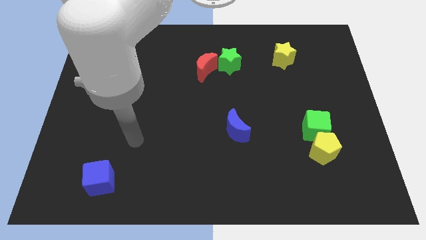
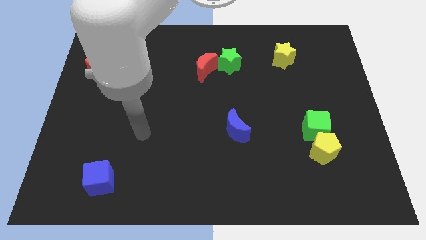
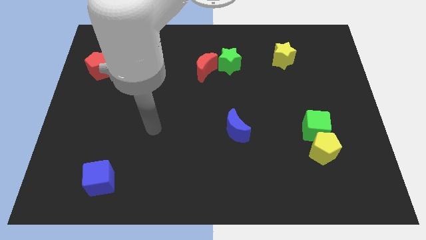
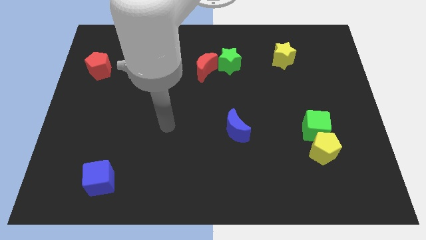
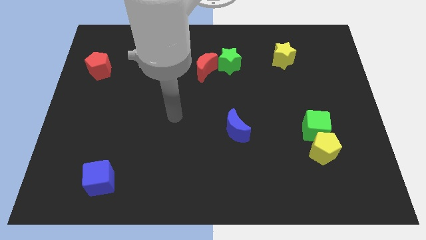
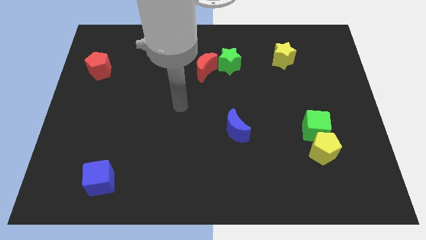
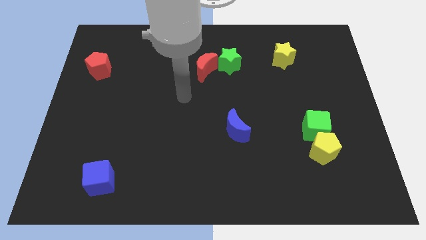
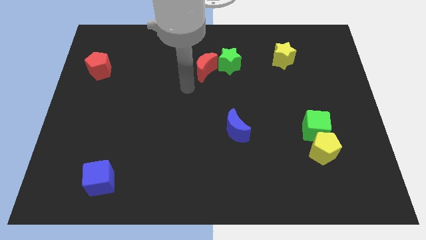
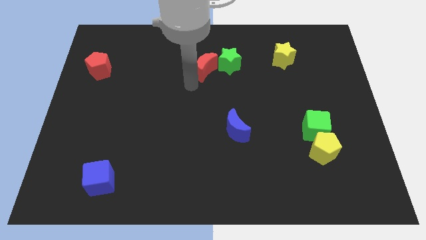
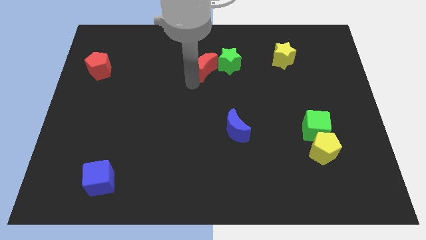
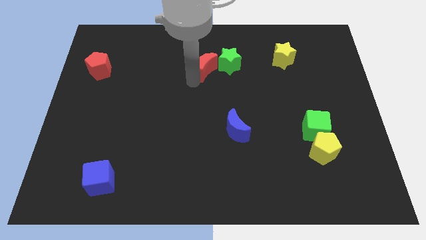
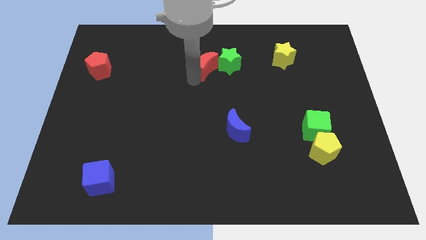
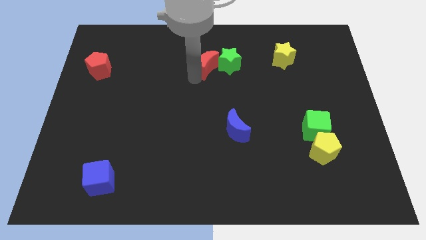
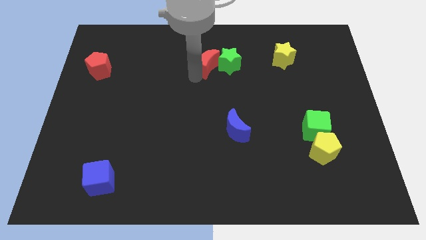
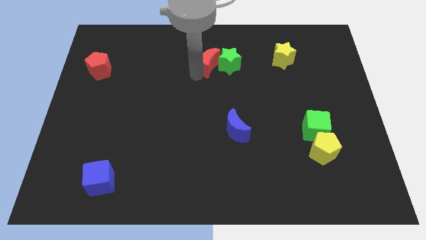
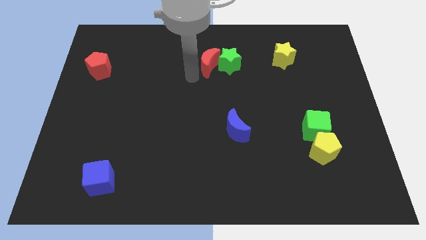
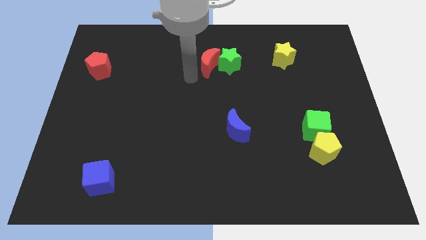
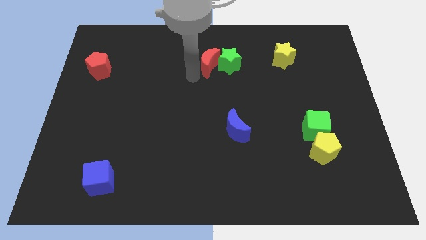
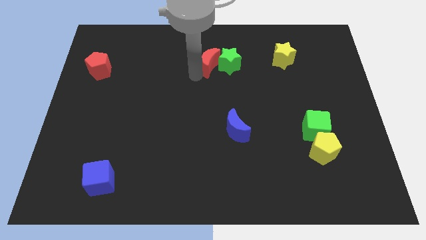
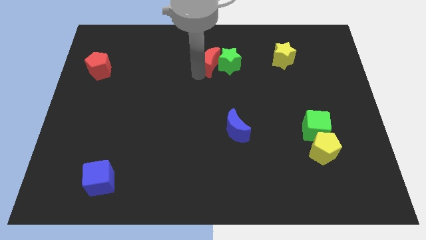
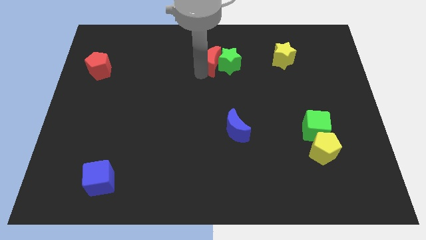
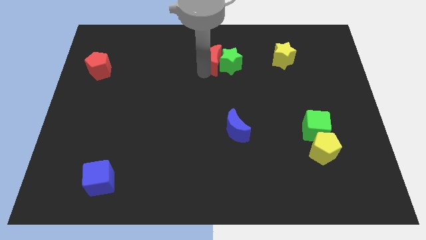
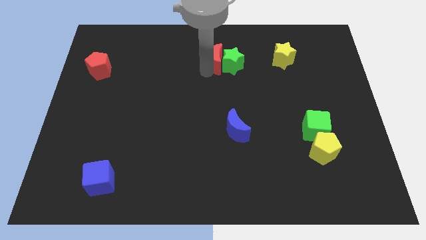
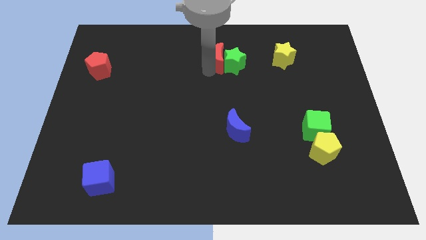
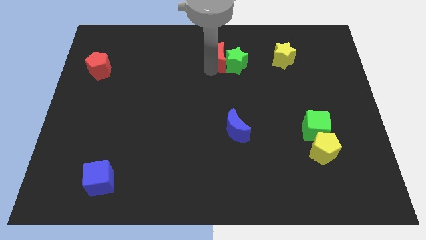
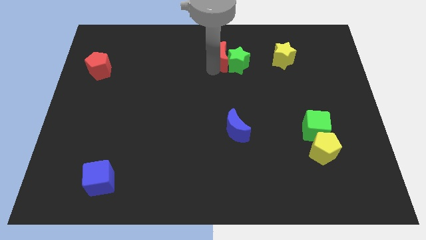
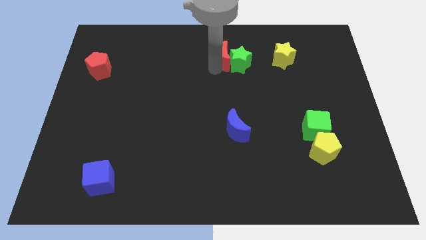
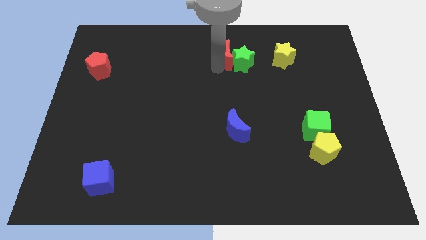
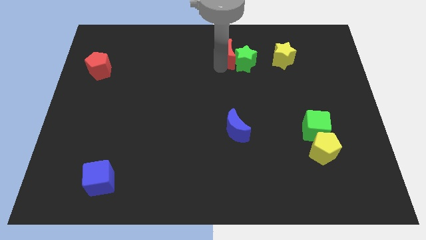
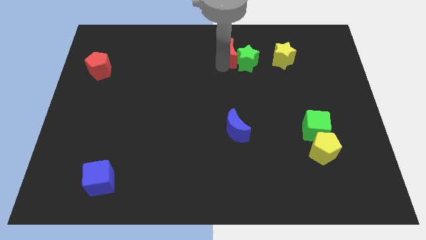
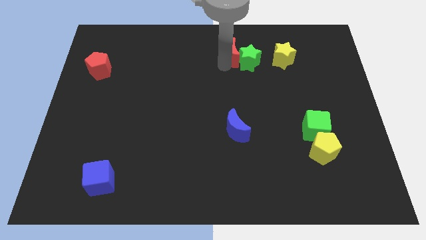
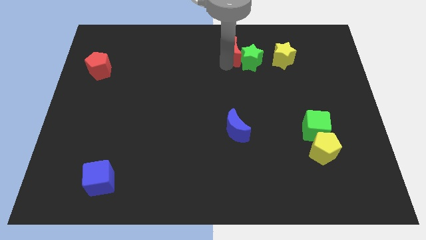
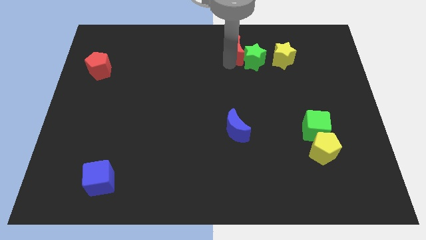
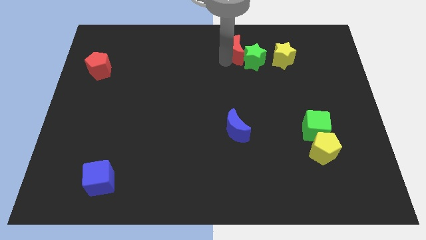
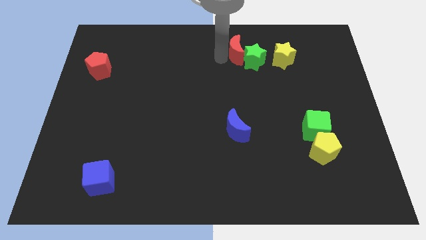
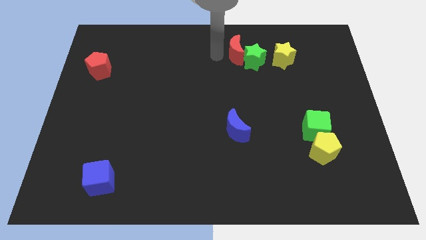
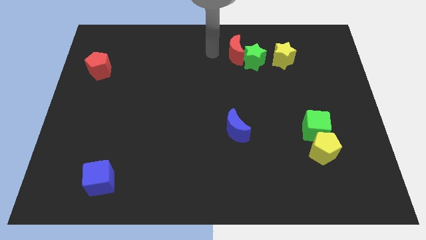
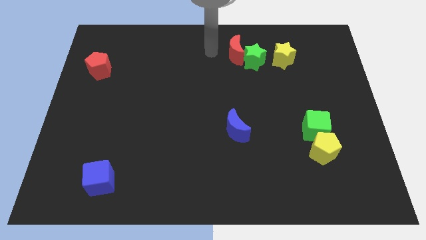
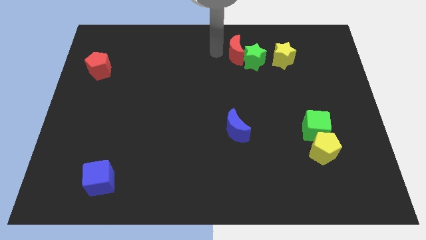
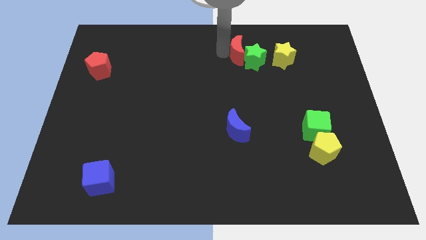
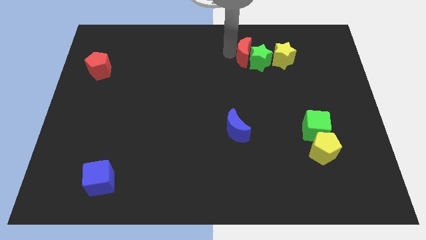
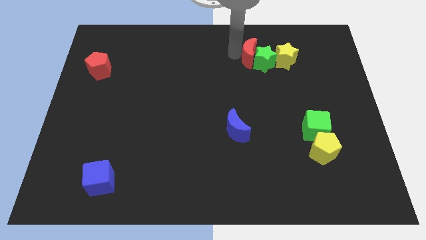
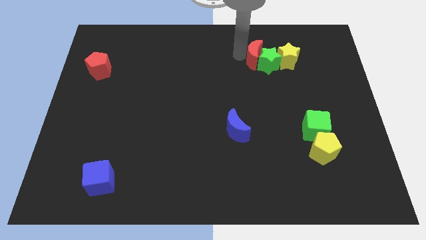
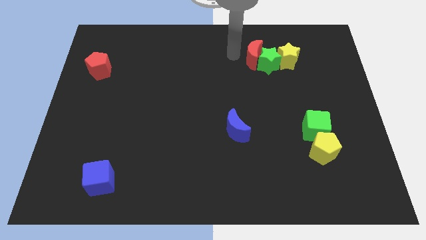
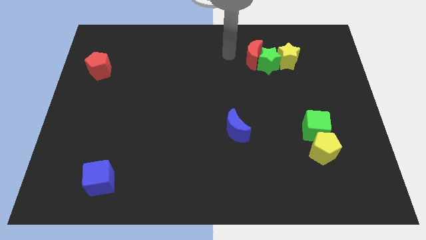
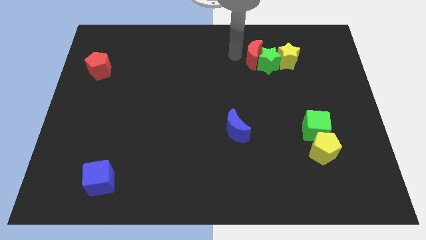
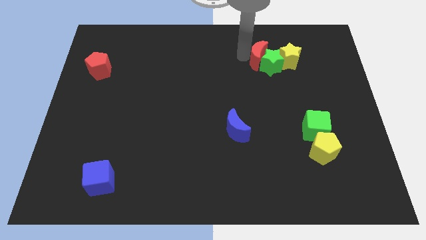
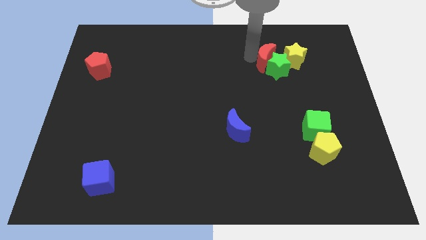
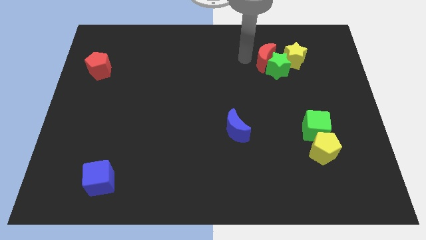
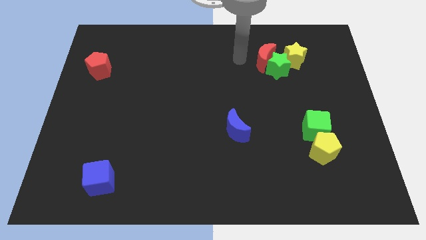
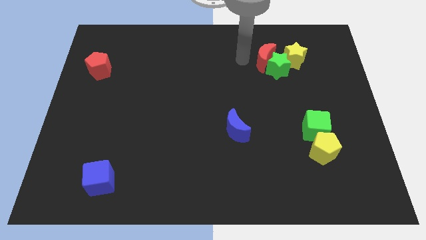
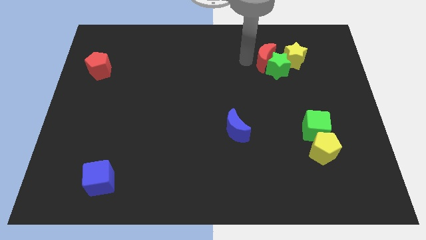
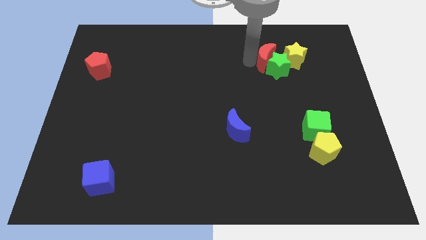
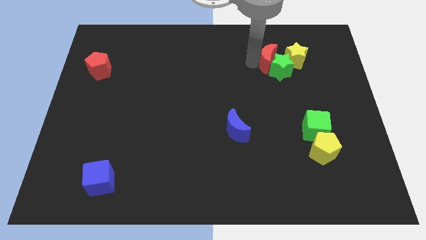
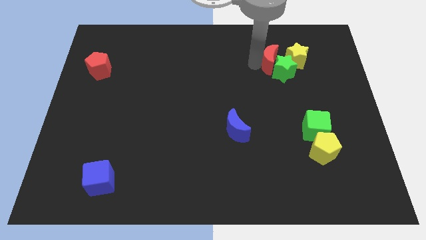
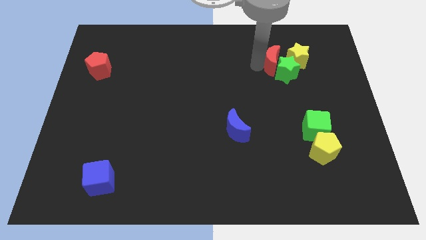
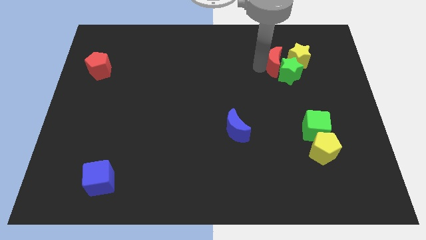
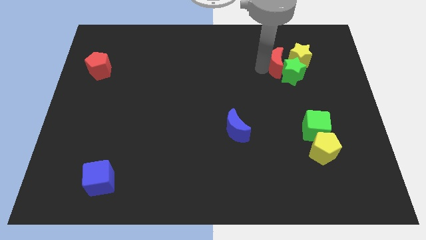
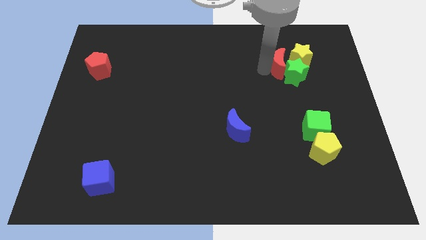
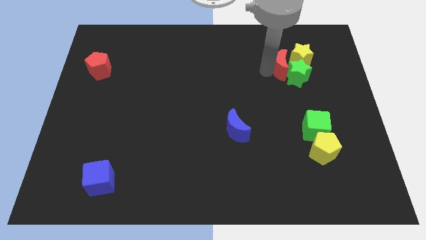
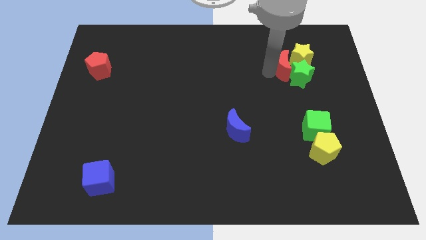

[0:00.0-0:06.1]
slide the red moon next to the yellow star

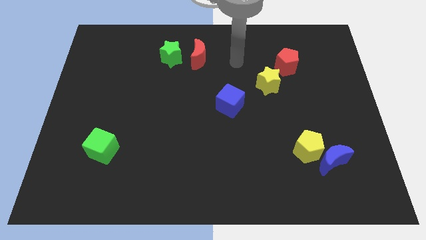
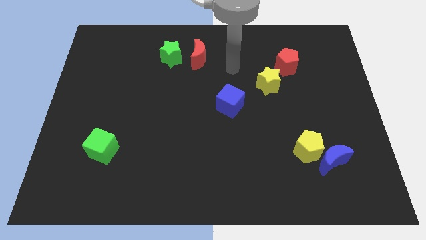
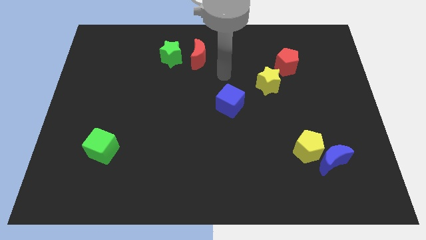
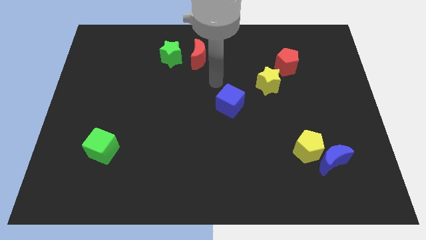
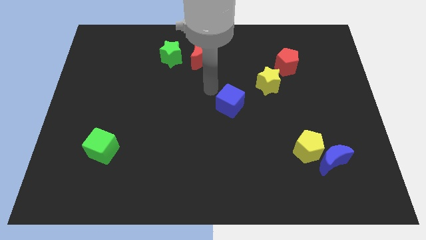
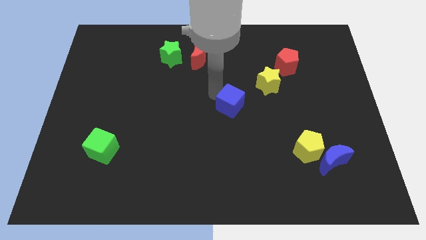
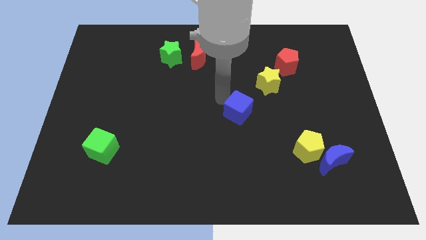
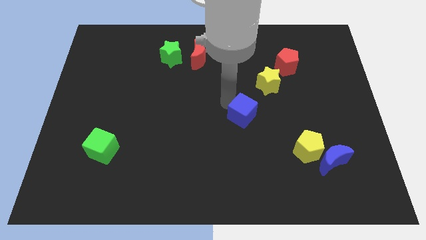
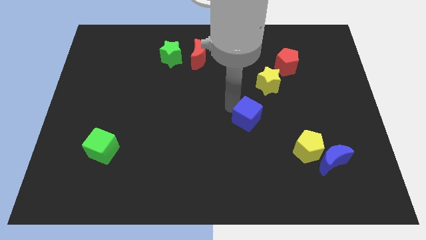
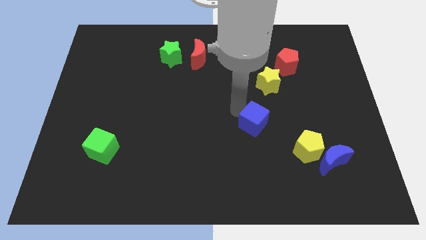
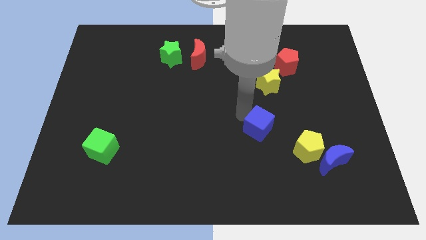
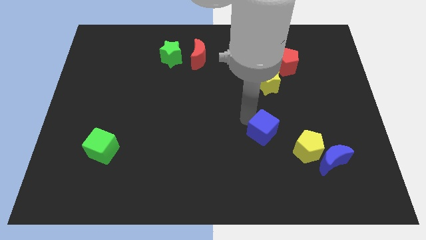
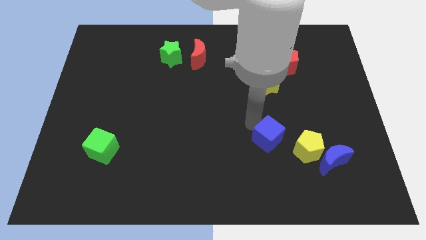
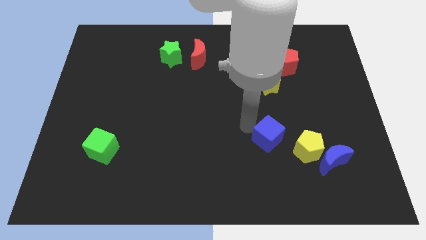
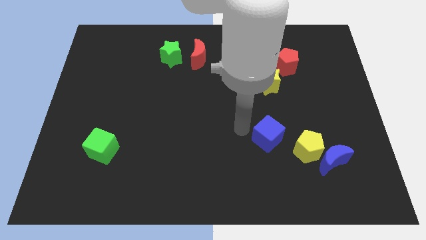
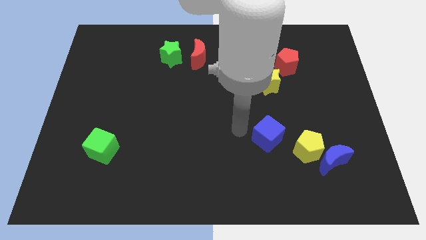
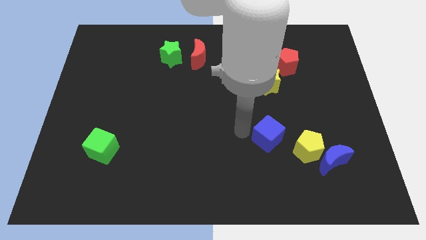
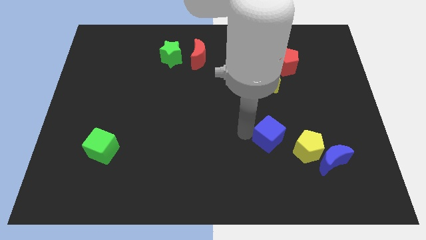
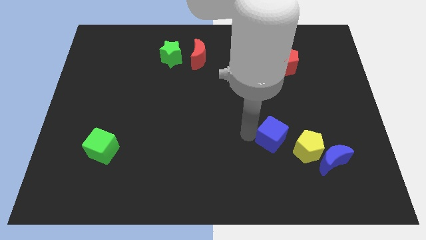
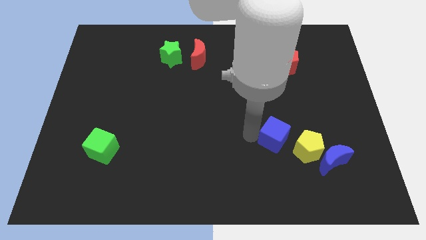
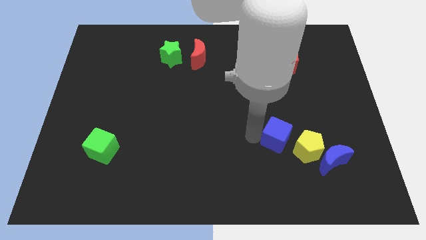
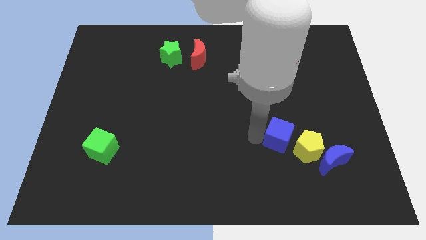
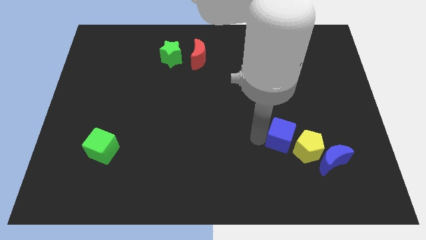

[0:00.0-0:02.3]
move the blue cube close to the yellow pentagon
